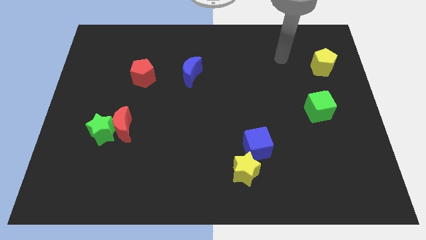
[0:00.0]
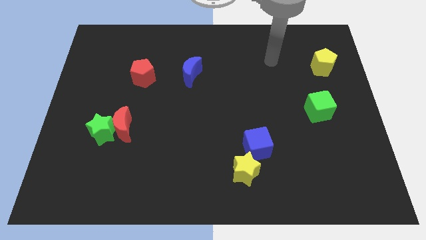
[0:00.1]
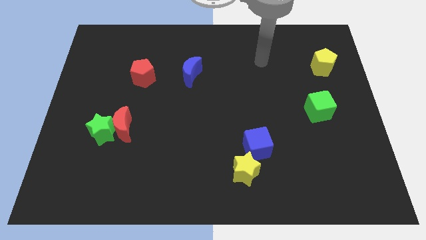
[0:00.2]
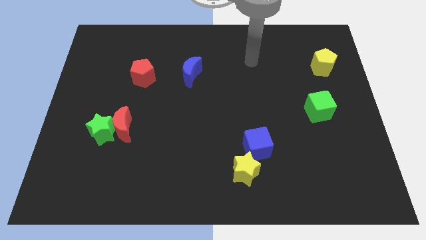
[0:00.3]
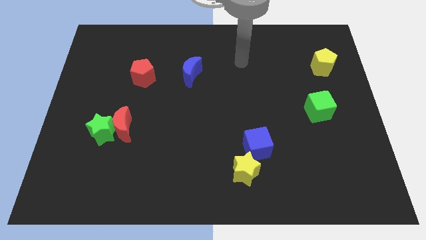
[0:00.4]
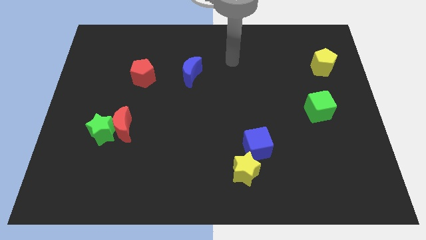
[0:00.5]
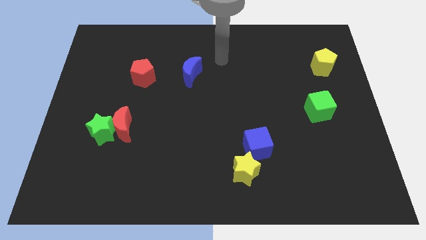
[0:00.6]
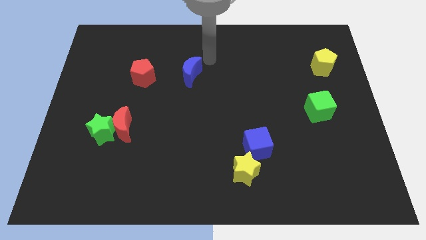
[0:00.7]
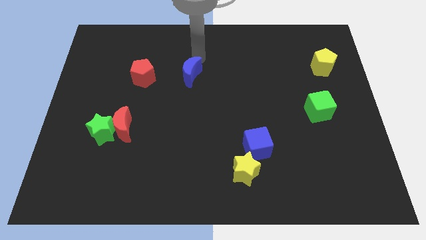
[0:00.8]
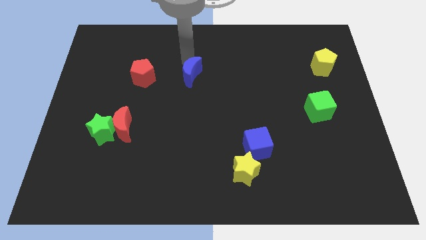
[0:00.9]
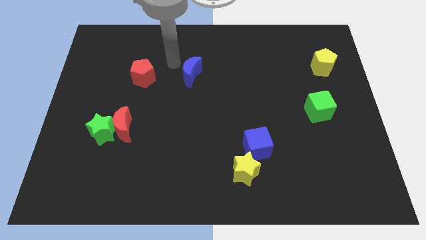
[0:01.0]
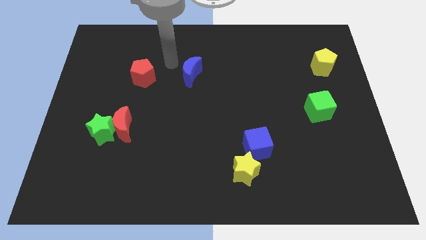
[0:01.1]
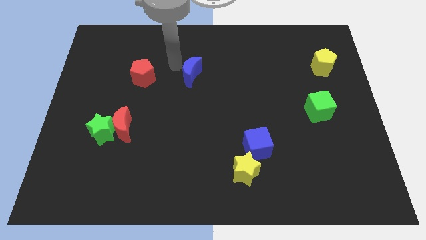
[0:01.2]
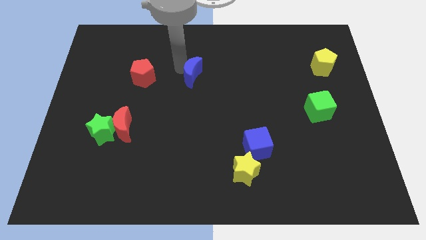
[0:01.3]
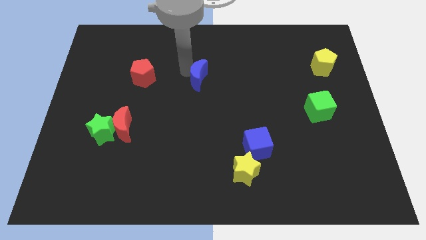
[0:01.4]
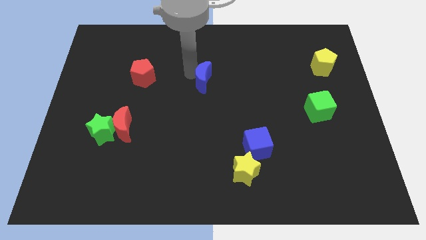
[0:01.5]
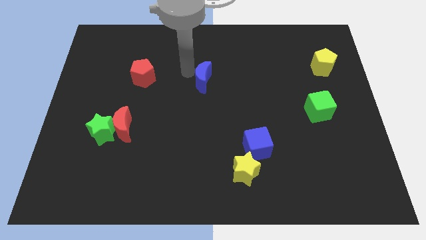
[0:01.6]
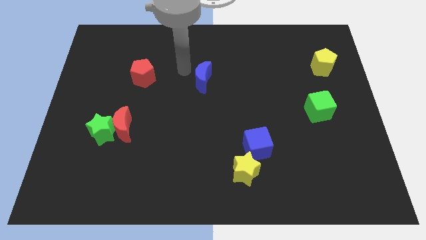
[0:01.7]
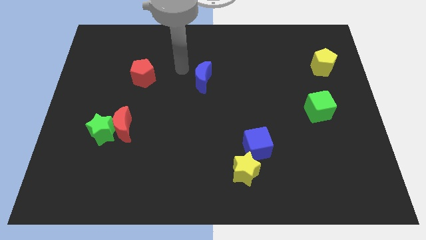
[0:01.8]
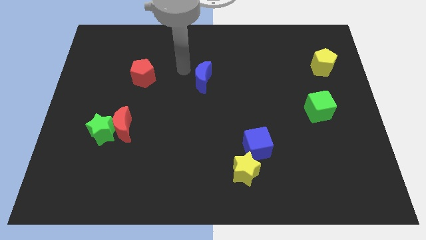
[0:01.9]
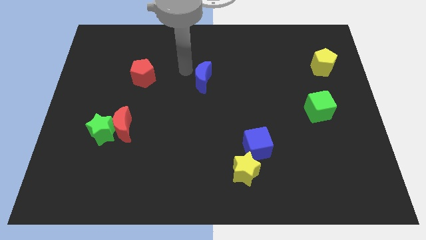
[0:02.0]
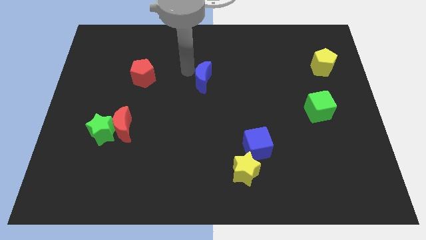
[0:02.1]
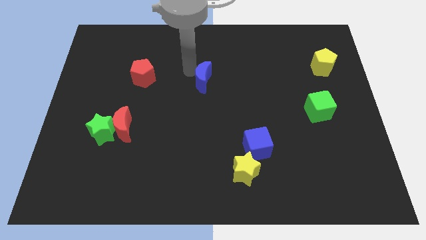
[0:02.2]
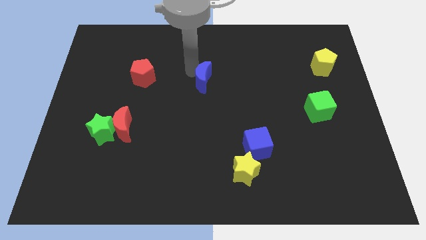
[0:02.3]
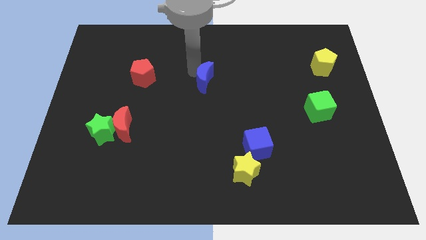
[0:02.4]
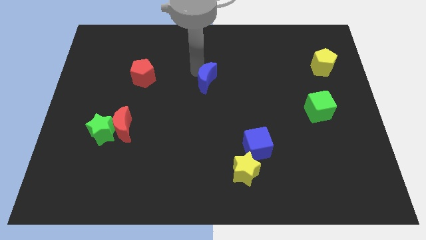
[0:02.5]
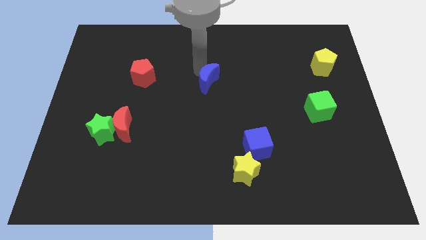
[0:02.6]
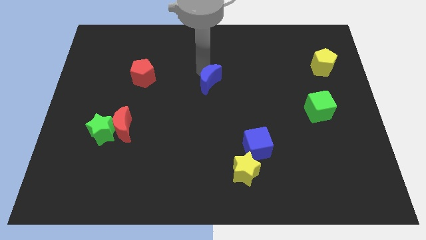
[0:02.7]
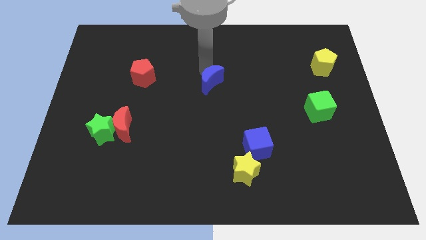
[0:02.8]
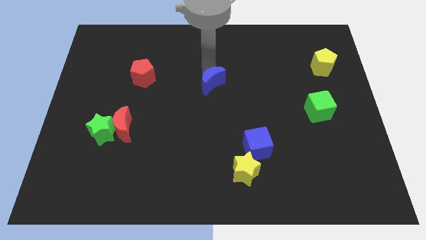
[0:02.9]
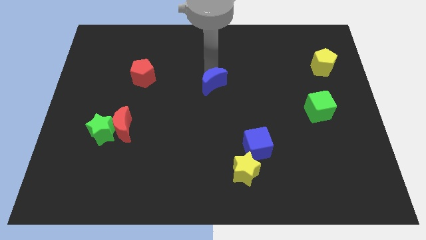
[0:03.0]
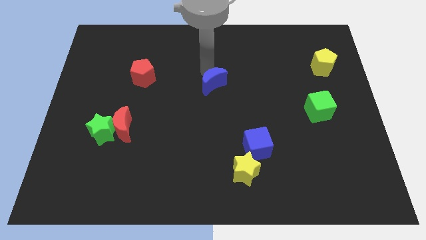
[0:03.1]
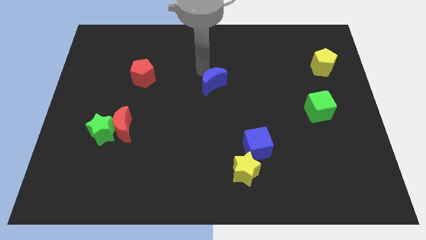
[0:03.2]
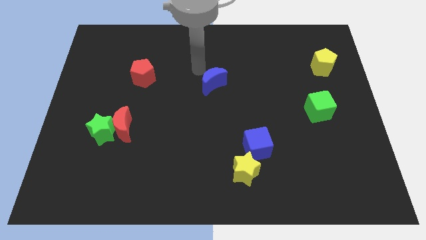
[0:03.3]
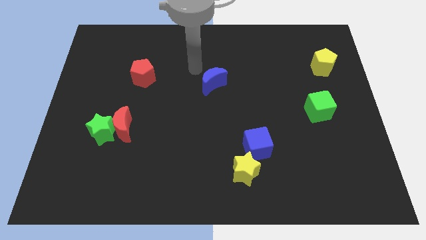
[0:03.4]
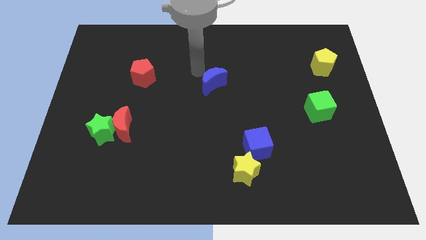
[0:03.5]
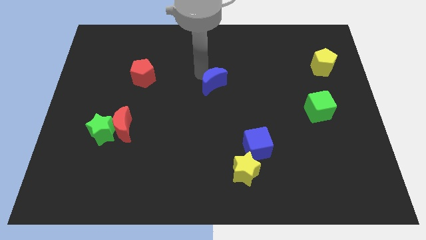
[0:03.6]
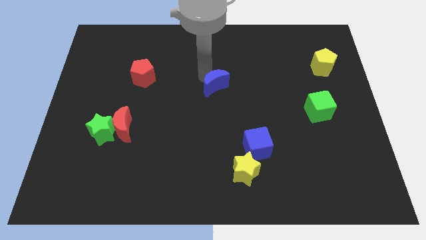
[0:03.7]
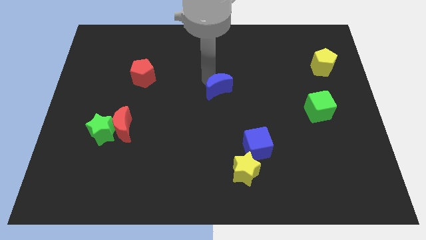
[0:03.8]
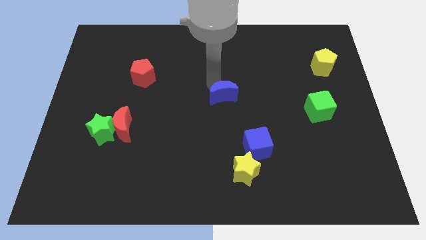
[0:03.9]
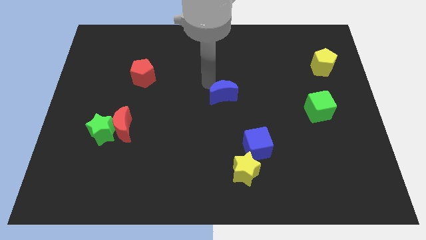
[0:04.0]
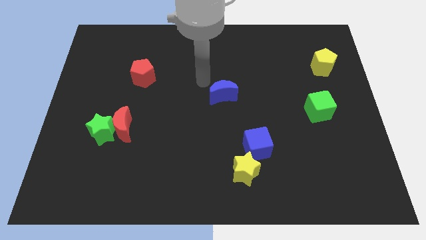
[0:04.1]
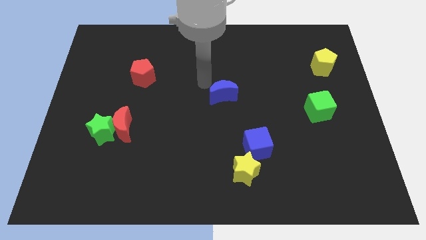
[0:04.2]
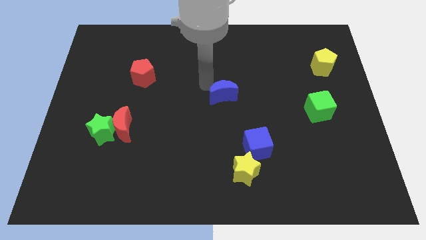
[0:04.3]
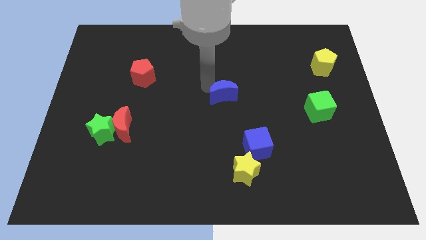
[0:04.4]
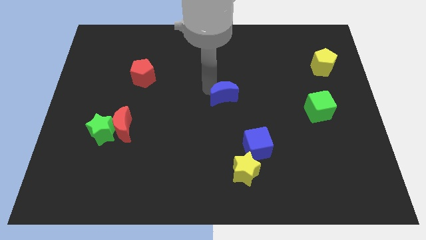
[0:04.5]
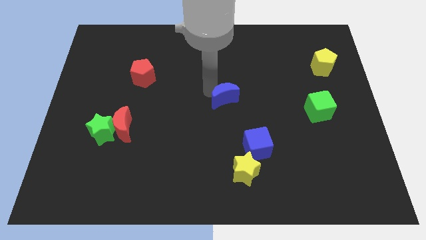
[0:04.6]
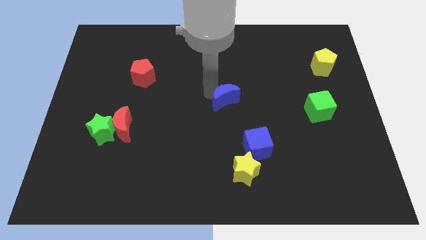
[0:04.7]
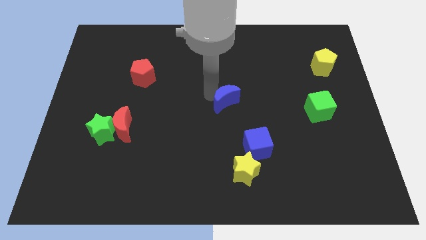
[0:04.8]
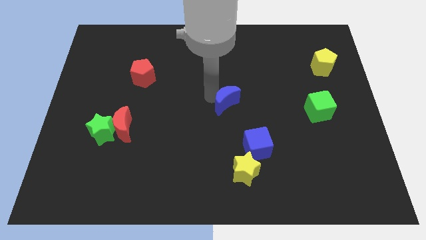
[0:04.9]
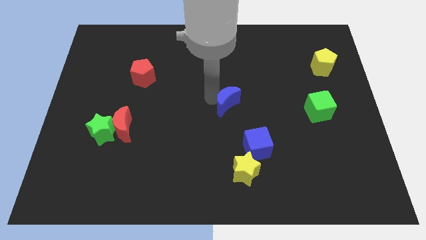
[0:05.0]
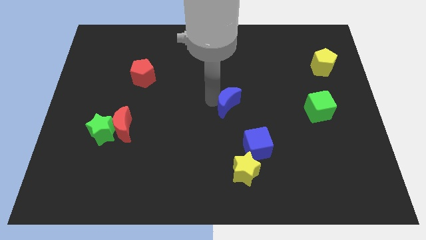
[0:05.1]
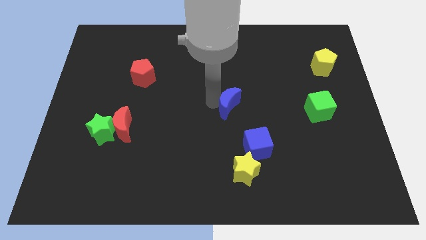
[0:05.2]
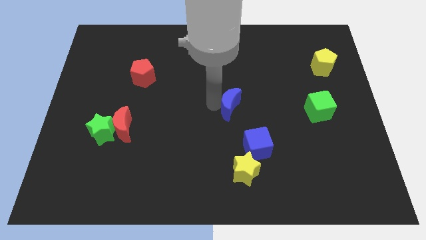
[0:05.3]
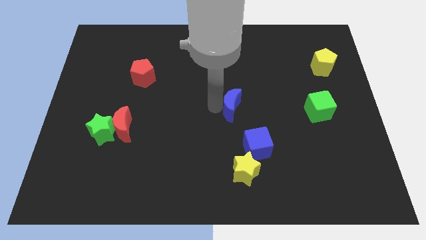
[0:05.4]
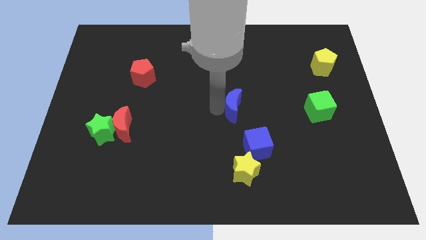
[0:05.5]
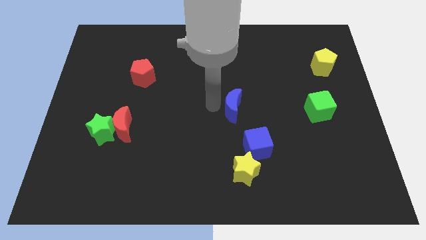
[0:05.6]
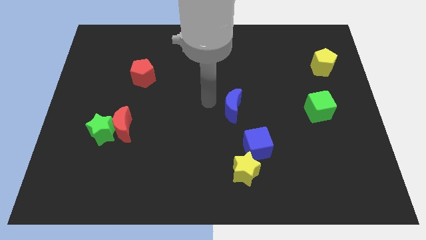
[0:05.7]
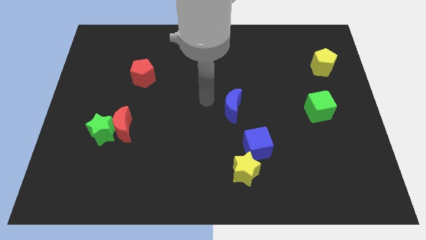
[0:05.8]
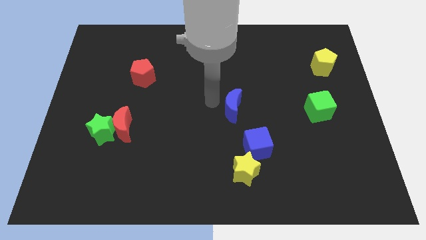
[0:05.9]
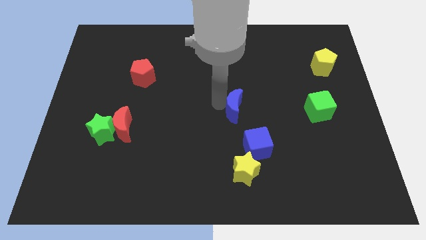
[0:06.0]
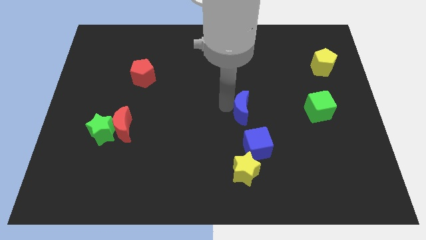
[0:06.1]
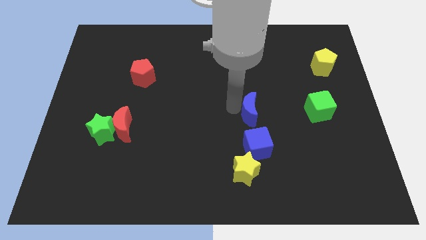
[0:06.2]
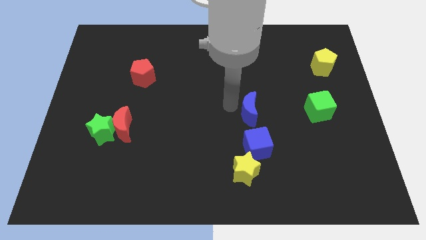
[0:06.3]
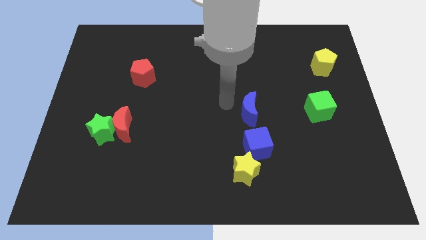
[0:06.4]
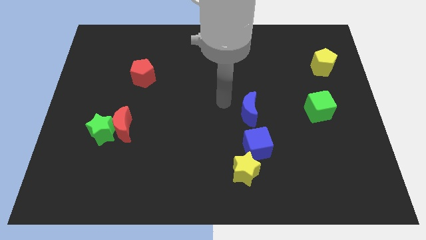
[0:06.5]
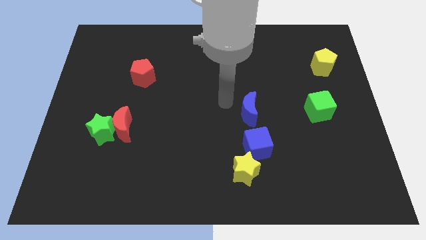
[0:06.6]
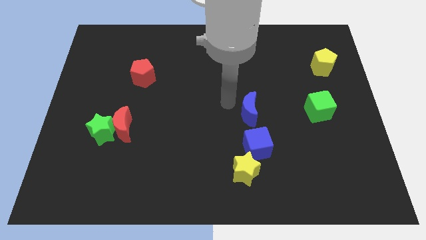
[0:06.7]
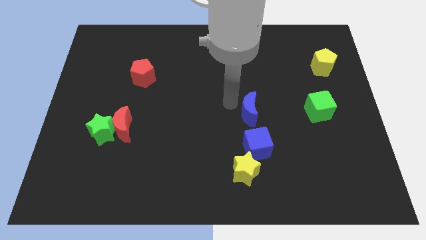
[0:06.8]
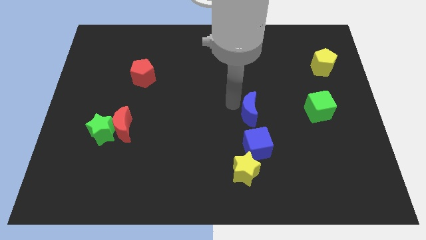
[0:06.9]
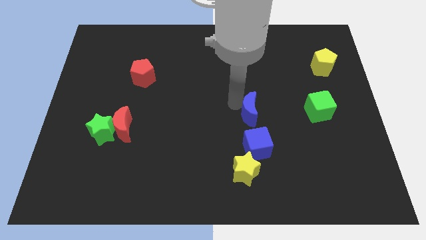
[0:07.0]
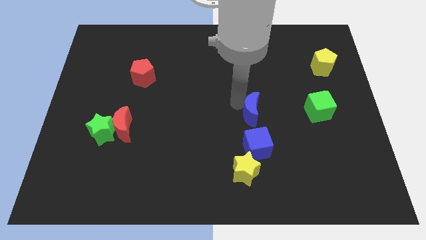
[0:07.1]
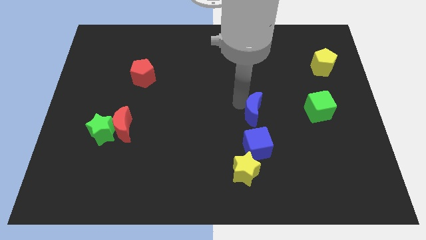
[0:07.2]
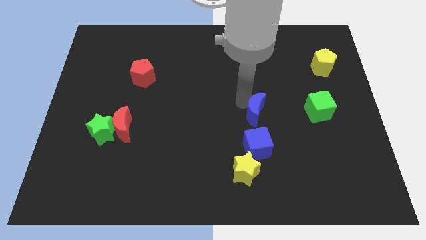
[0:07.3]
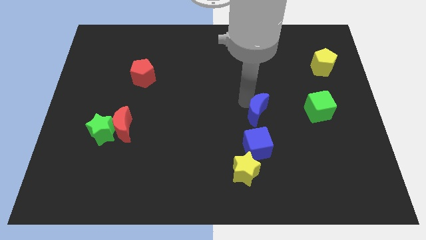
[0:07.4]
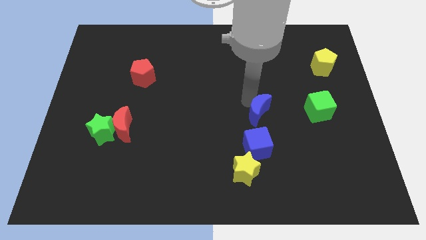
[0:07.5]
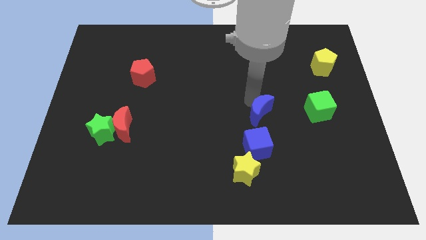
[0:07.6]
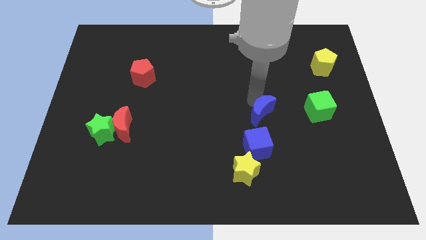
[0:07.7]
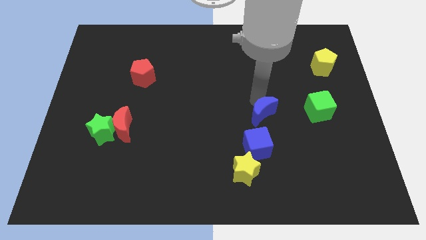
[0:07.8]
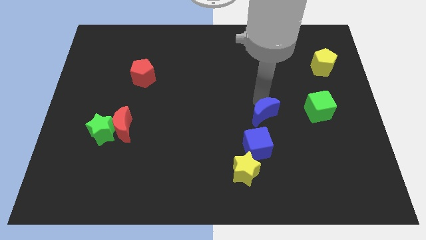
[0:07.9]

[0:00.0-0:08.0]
push the blue moon to the top right side of the blue cube
